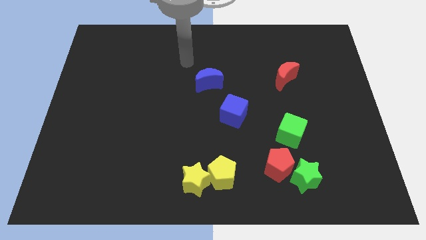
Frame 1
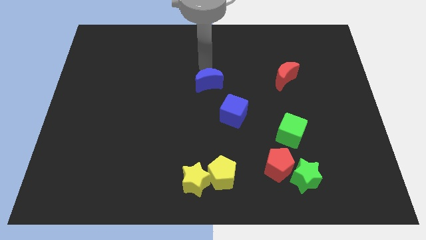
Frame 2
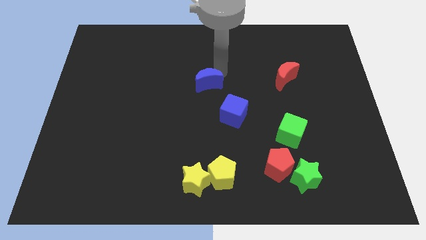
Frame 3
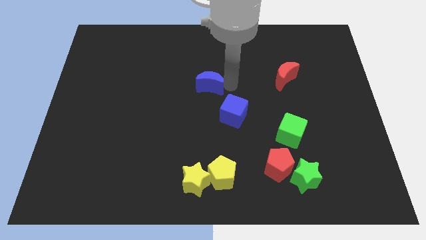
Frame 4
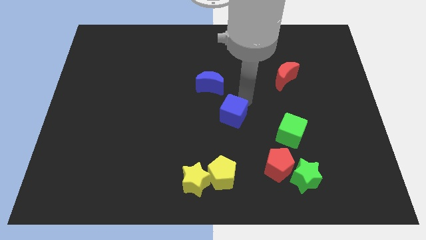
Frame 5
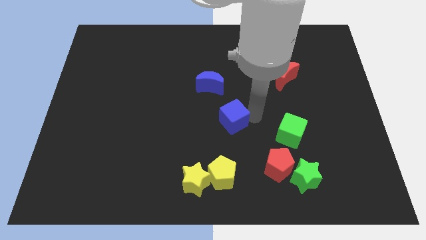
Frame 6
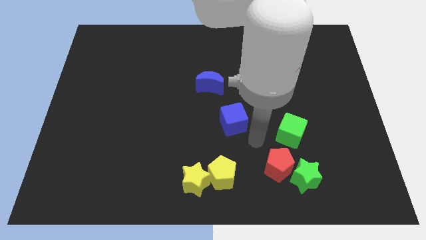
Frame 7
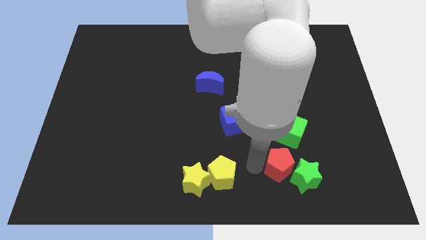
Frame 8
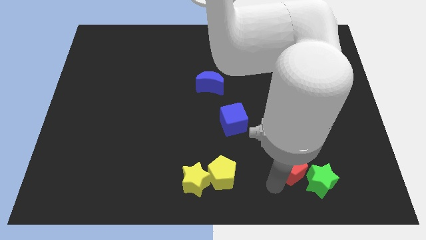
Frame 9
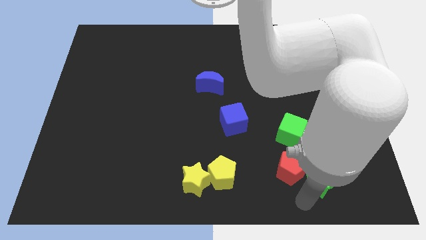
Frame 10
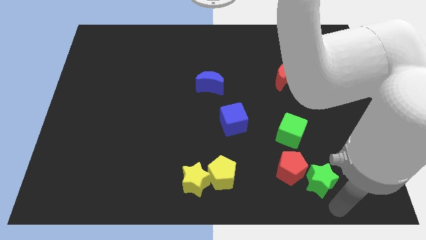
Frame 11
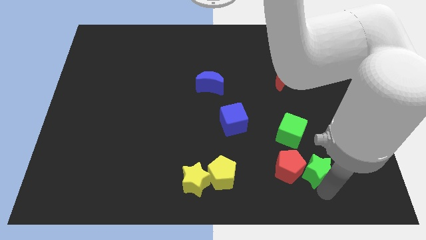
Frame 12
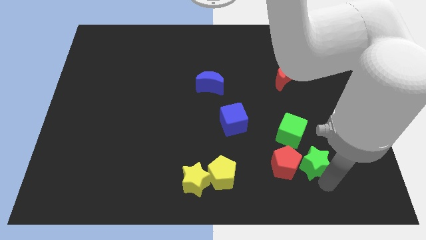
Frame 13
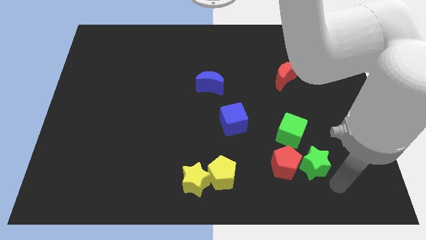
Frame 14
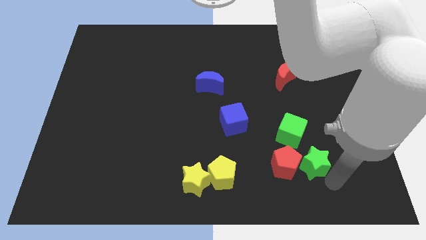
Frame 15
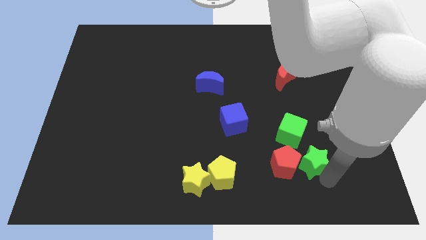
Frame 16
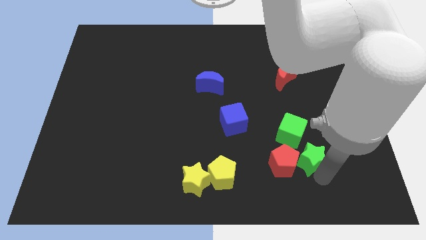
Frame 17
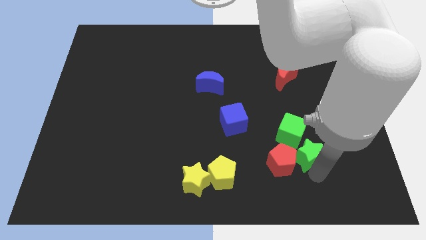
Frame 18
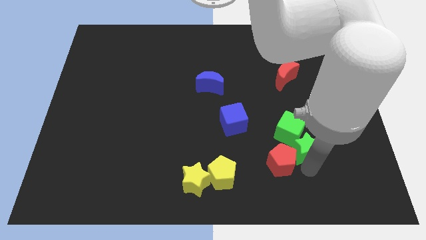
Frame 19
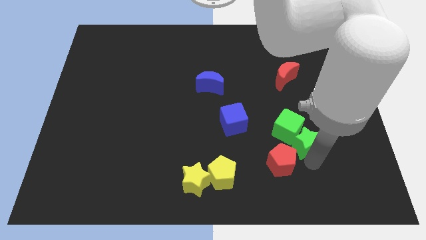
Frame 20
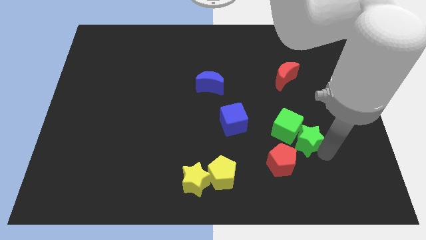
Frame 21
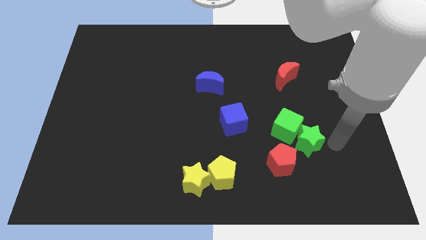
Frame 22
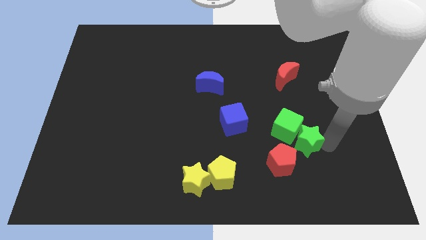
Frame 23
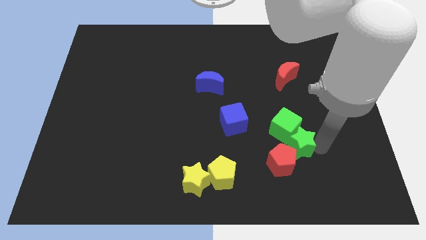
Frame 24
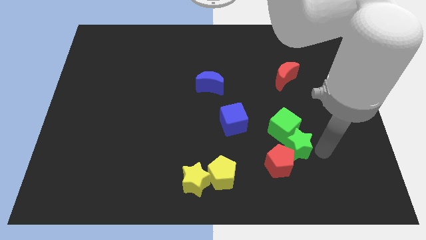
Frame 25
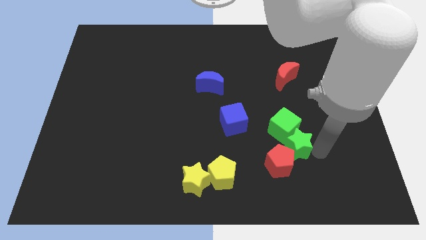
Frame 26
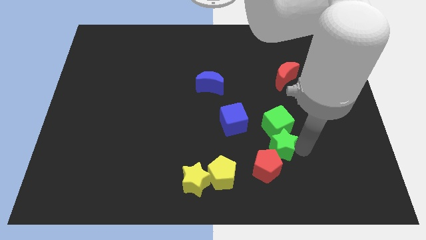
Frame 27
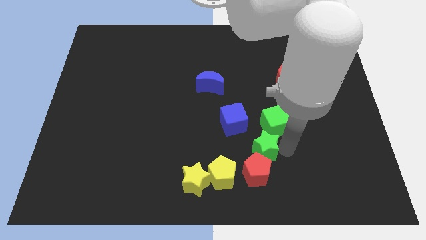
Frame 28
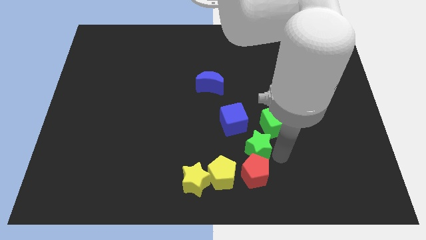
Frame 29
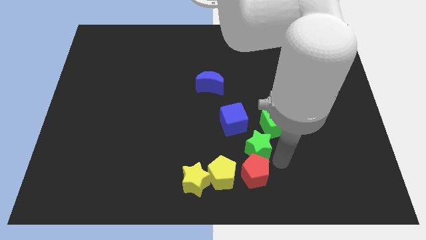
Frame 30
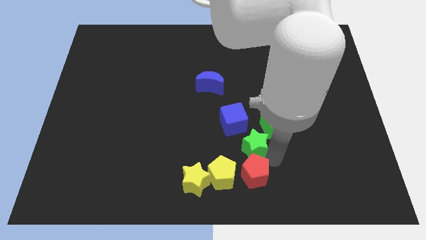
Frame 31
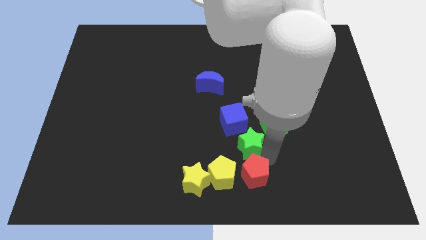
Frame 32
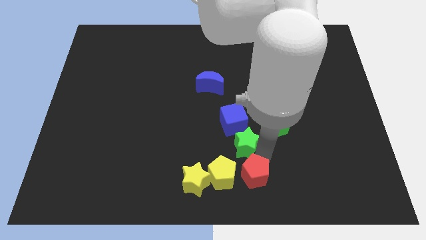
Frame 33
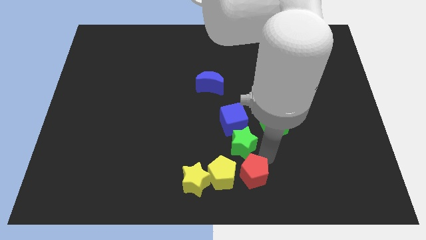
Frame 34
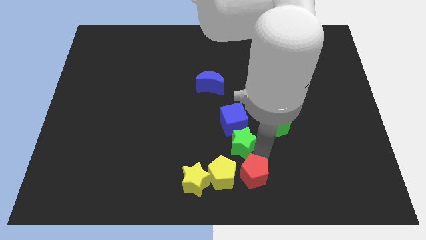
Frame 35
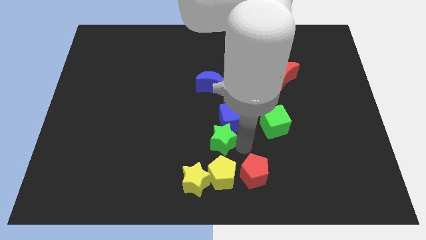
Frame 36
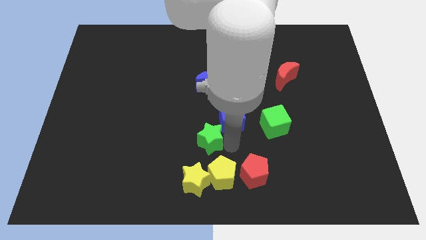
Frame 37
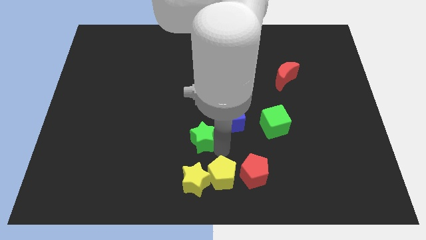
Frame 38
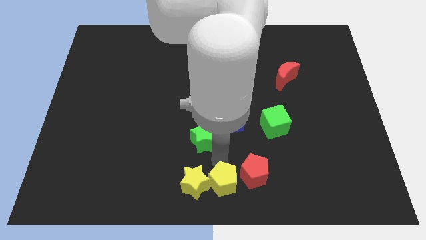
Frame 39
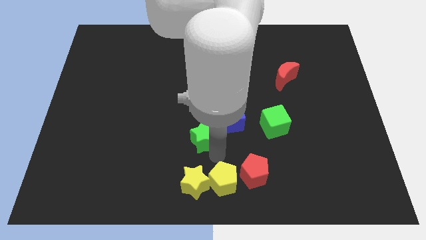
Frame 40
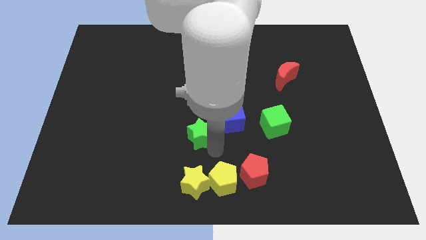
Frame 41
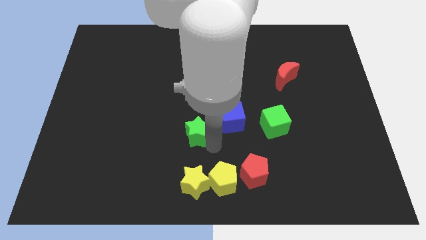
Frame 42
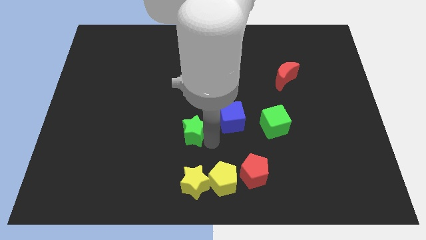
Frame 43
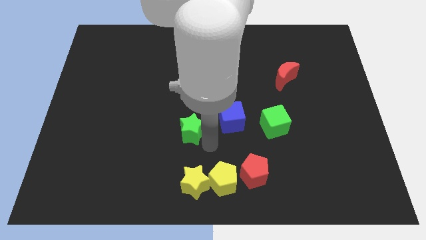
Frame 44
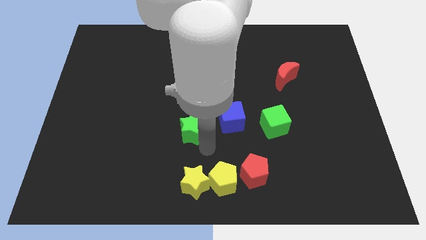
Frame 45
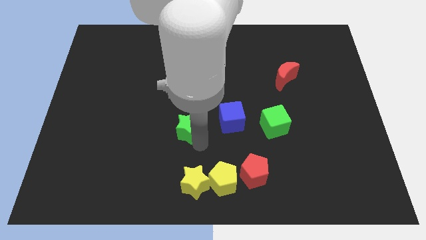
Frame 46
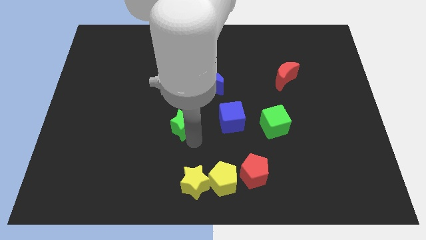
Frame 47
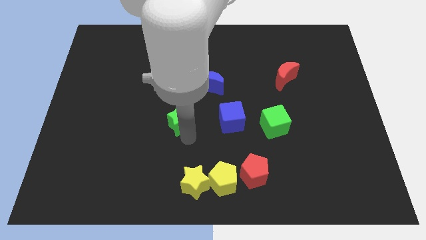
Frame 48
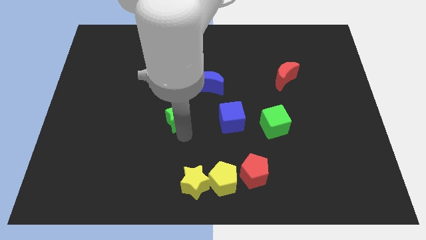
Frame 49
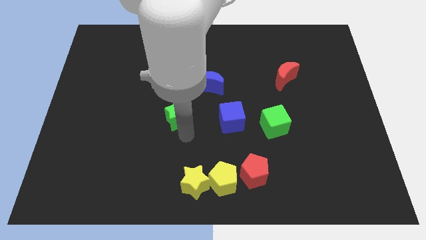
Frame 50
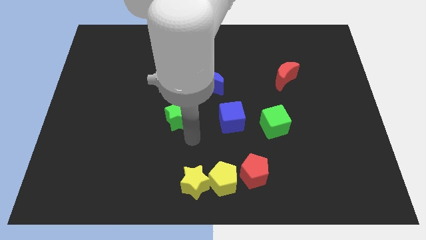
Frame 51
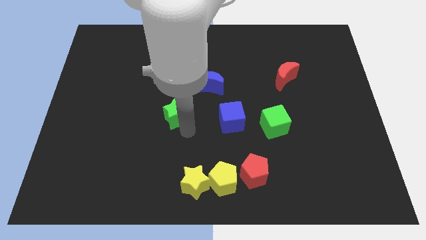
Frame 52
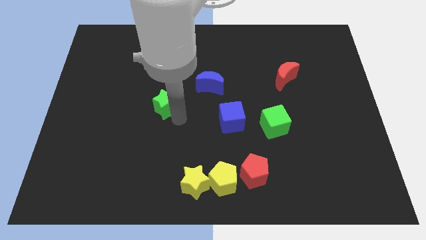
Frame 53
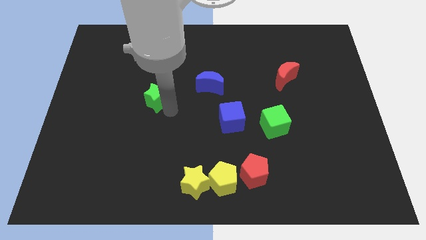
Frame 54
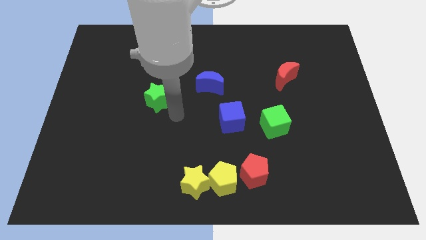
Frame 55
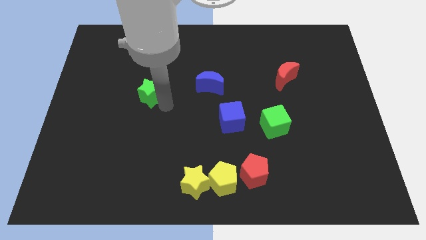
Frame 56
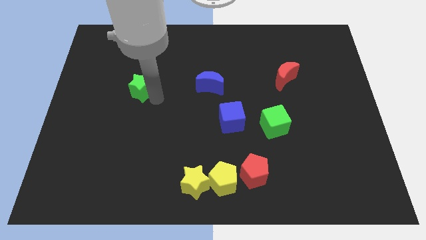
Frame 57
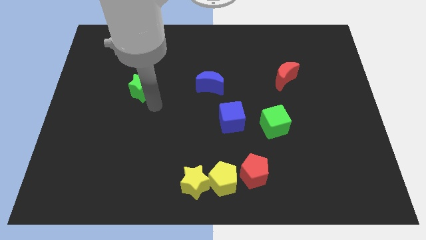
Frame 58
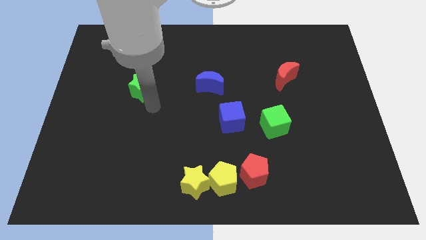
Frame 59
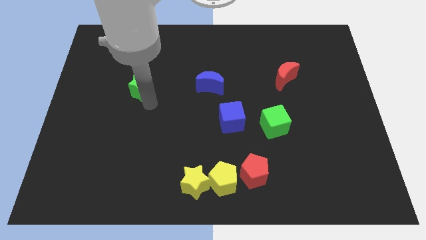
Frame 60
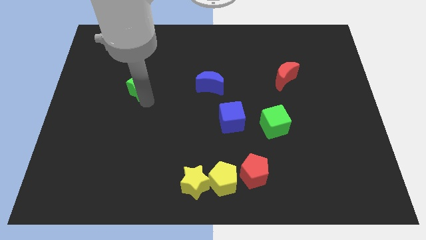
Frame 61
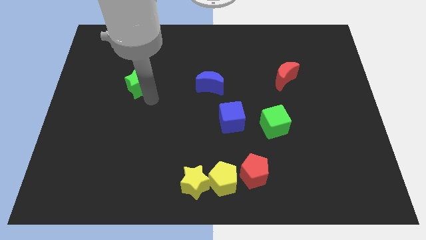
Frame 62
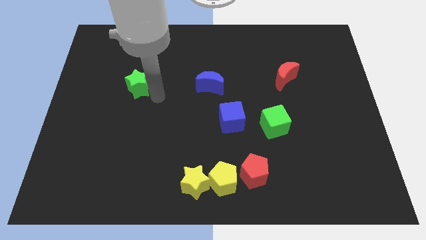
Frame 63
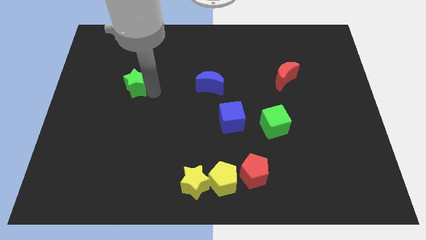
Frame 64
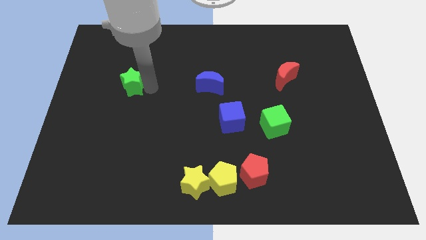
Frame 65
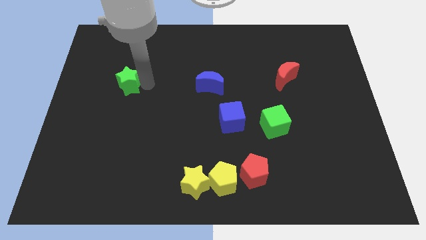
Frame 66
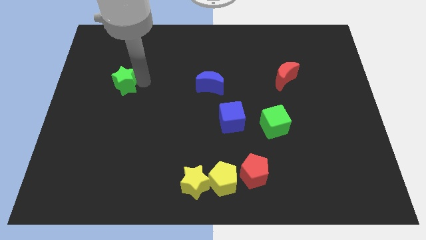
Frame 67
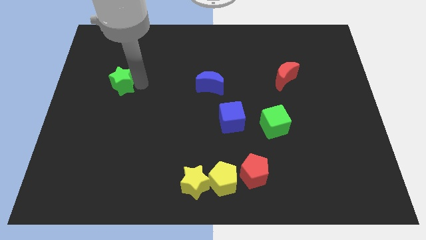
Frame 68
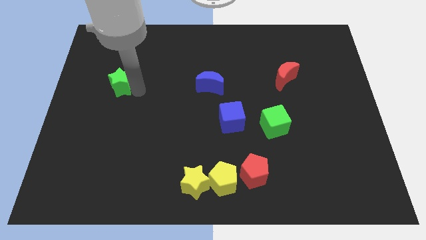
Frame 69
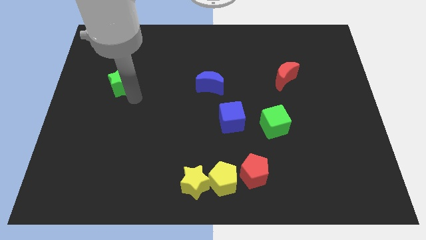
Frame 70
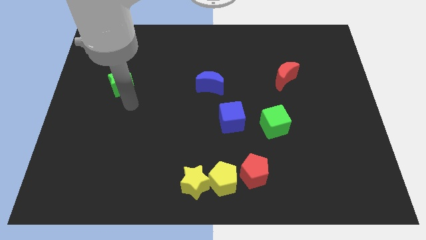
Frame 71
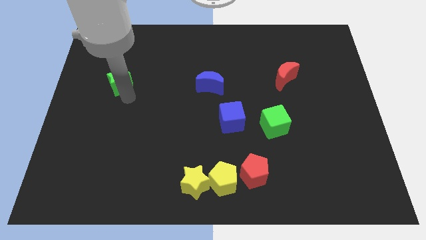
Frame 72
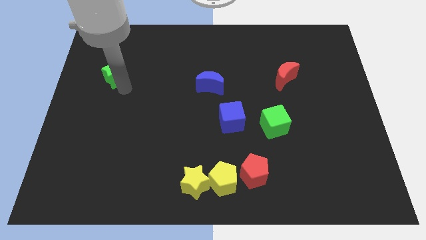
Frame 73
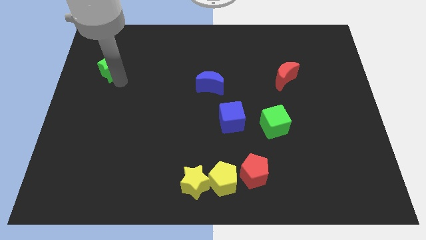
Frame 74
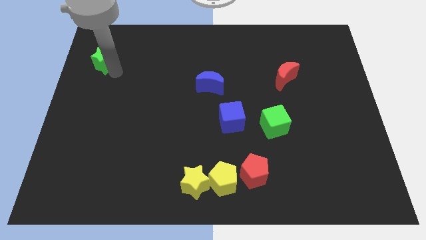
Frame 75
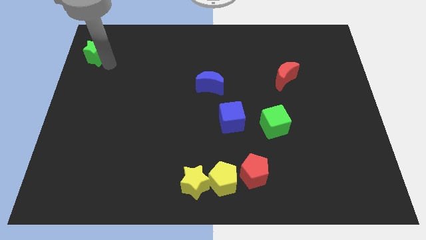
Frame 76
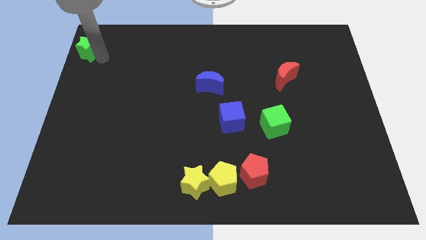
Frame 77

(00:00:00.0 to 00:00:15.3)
slide the green star to the upper left corner

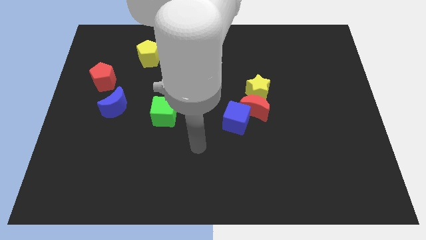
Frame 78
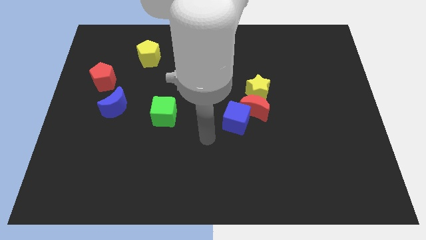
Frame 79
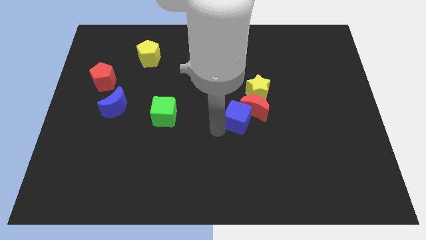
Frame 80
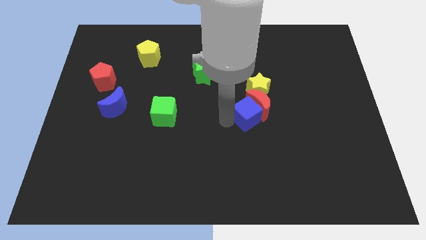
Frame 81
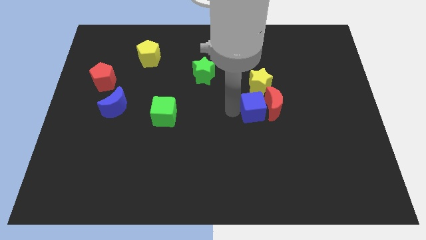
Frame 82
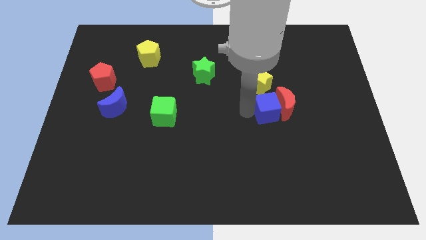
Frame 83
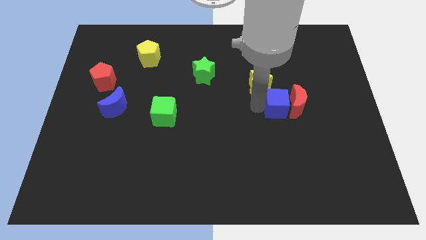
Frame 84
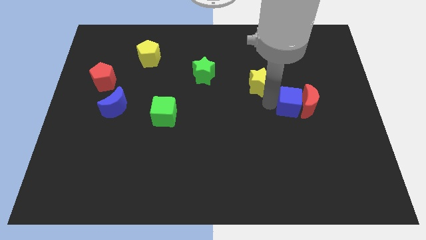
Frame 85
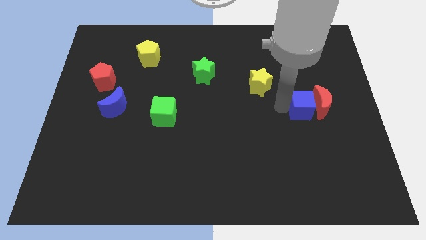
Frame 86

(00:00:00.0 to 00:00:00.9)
put the red moon to the right side of the board
